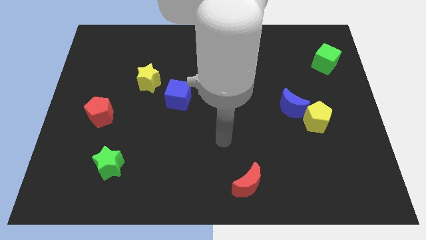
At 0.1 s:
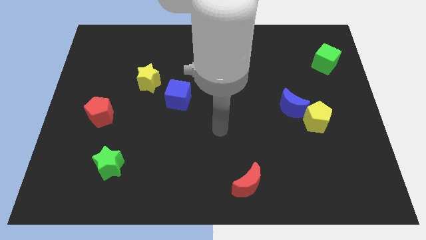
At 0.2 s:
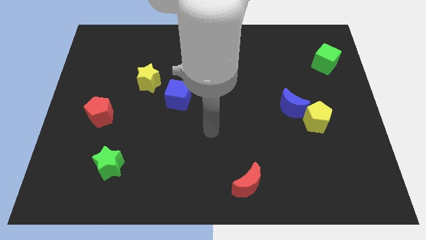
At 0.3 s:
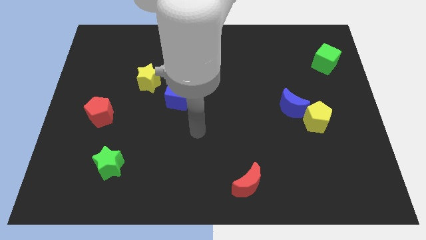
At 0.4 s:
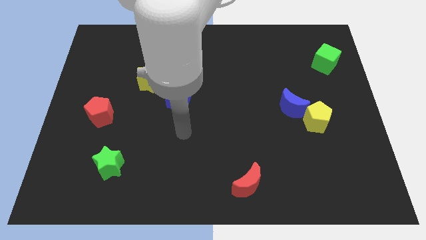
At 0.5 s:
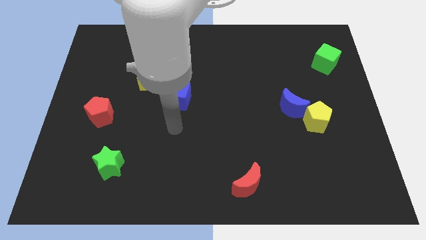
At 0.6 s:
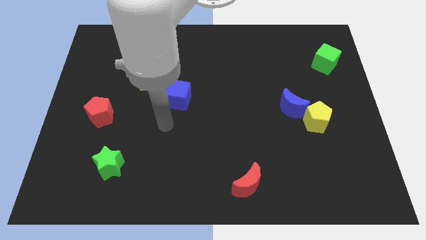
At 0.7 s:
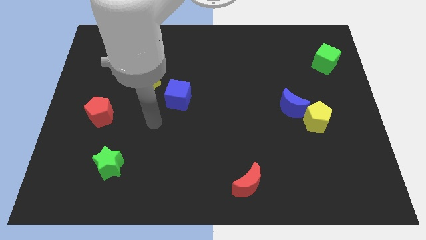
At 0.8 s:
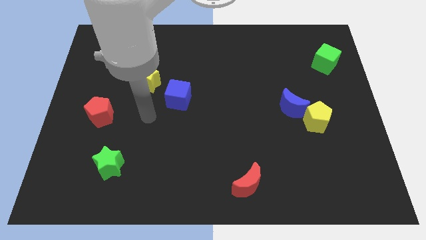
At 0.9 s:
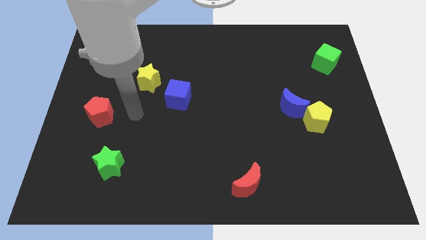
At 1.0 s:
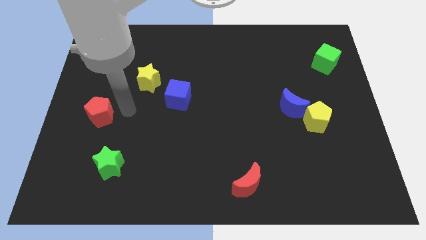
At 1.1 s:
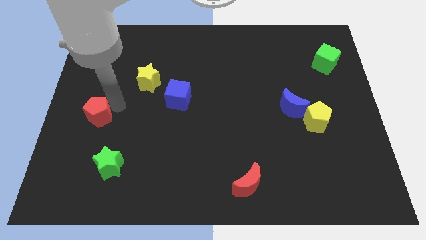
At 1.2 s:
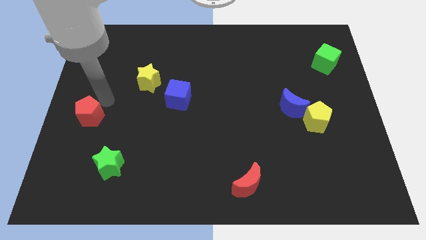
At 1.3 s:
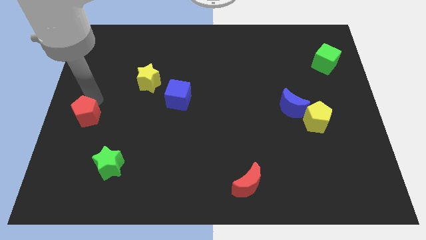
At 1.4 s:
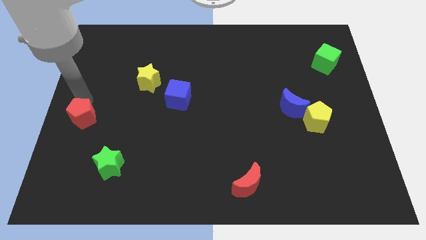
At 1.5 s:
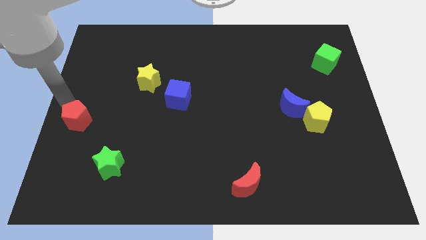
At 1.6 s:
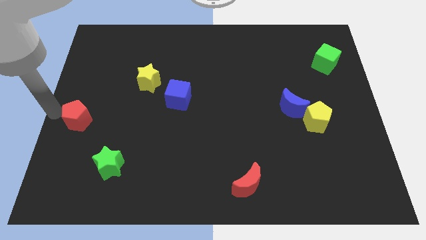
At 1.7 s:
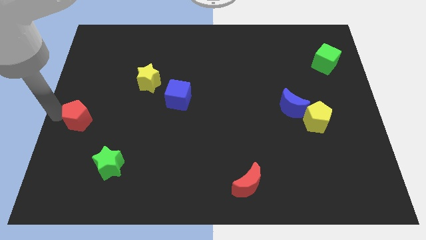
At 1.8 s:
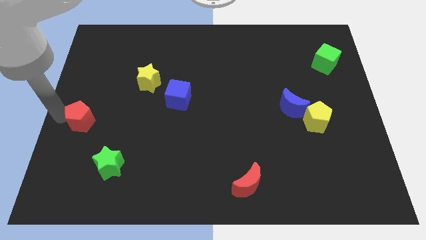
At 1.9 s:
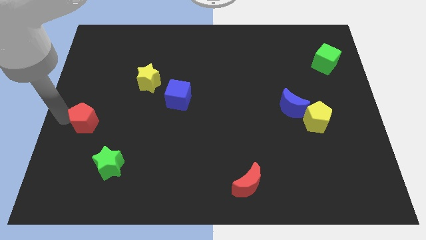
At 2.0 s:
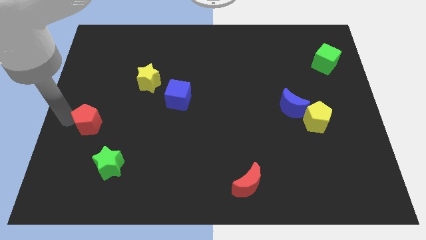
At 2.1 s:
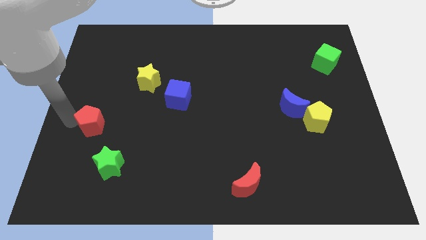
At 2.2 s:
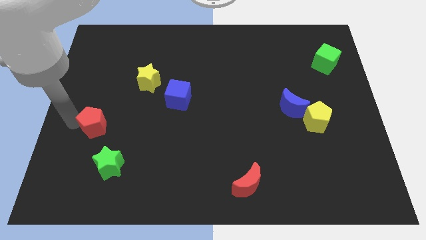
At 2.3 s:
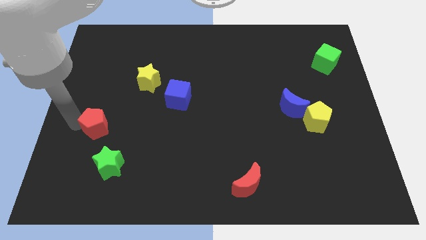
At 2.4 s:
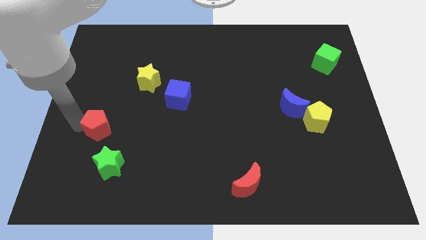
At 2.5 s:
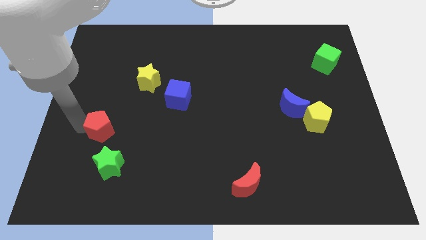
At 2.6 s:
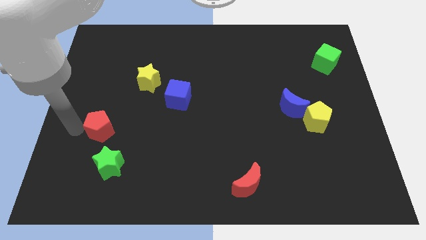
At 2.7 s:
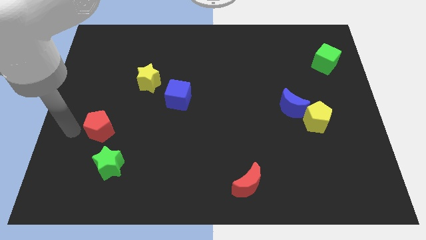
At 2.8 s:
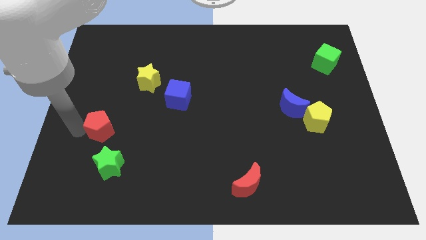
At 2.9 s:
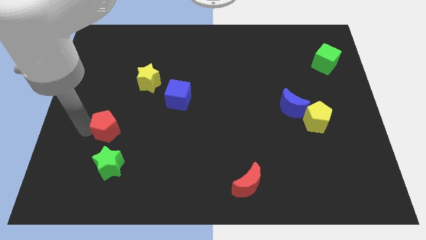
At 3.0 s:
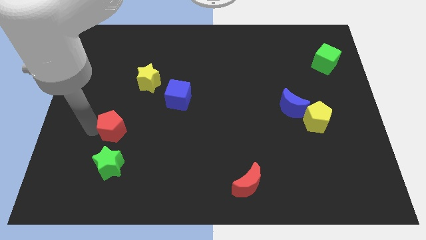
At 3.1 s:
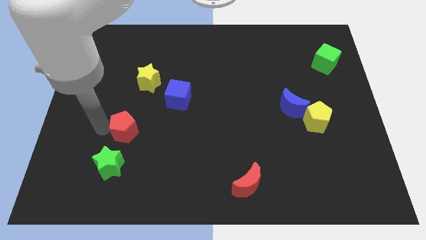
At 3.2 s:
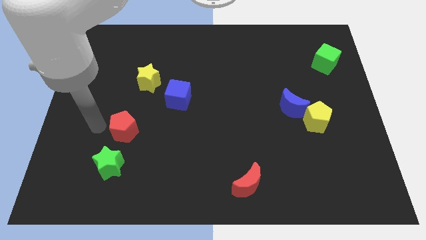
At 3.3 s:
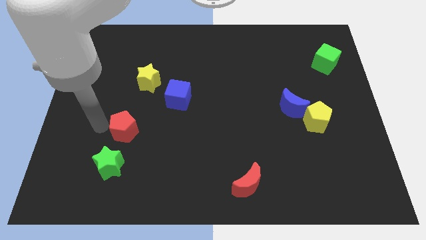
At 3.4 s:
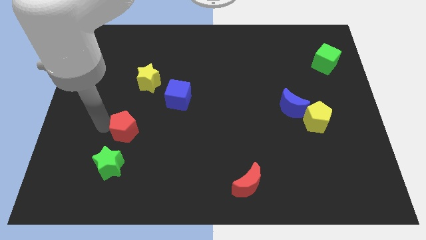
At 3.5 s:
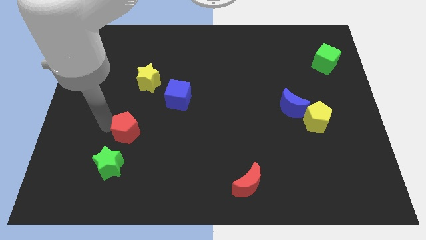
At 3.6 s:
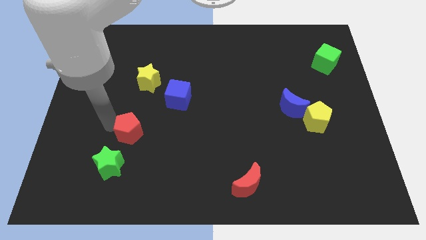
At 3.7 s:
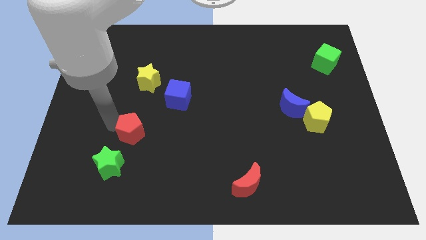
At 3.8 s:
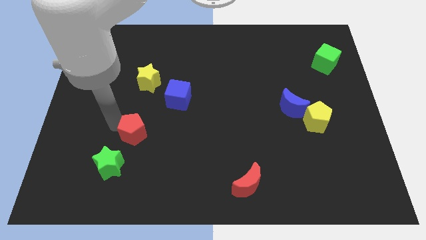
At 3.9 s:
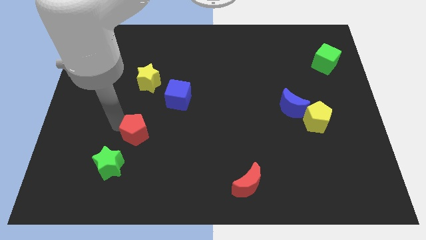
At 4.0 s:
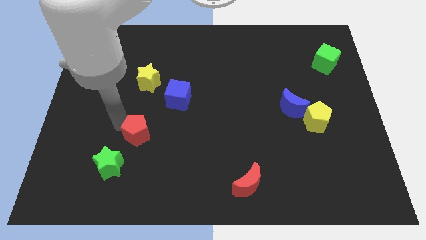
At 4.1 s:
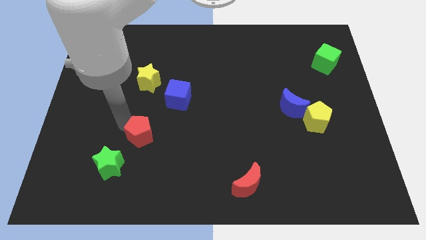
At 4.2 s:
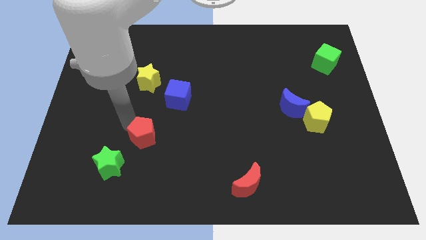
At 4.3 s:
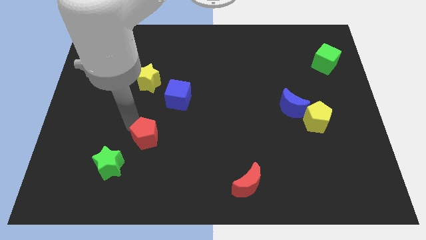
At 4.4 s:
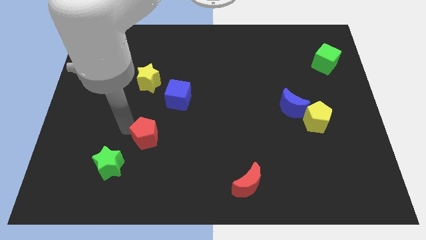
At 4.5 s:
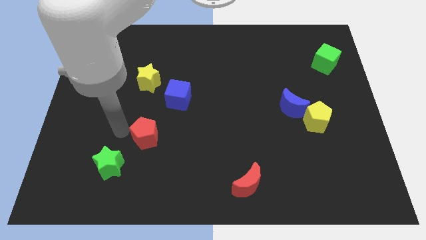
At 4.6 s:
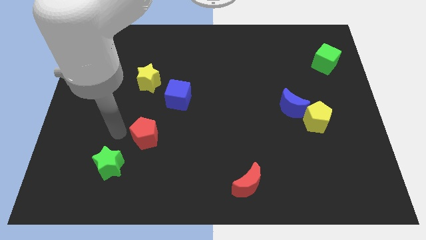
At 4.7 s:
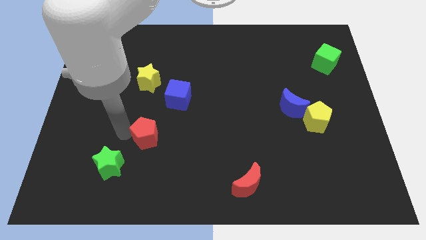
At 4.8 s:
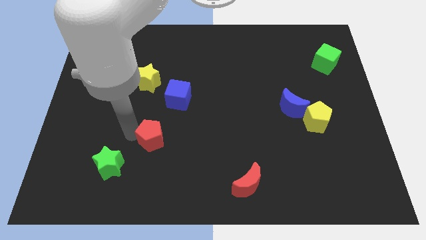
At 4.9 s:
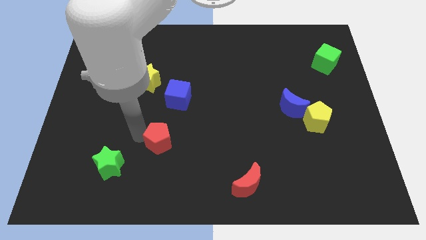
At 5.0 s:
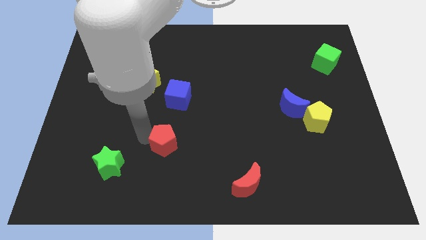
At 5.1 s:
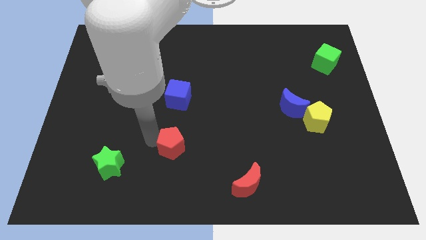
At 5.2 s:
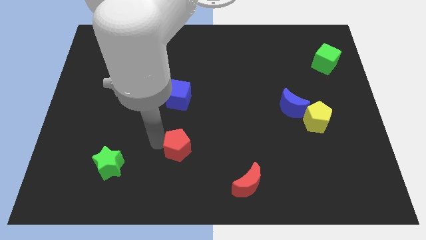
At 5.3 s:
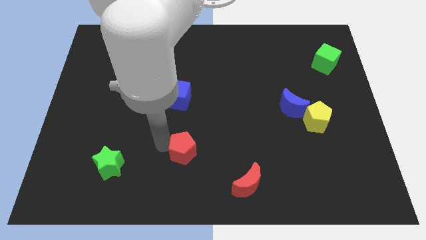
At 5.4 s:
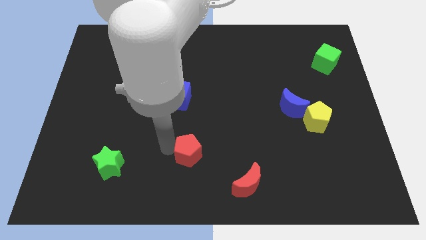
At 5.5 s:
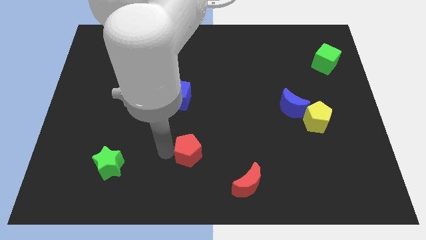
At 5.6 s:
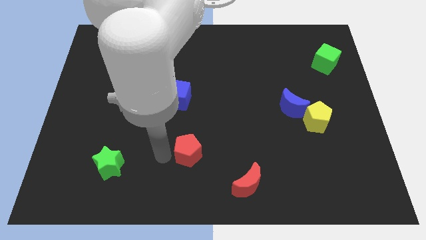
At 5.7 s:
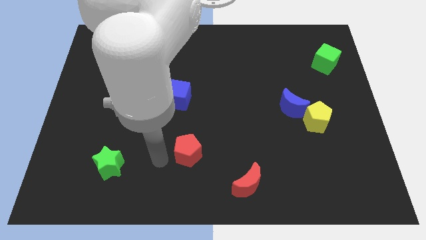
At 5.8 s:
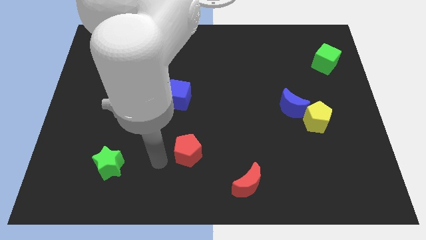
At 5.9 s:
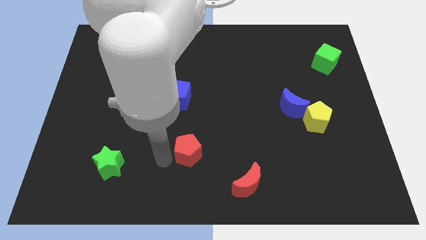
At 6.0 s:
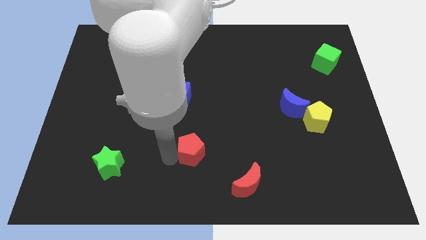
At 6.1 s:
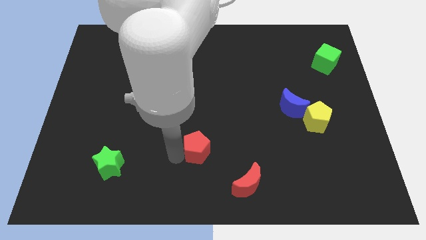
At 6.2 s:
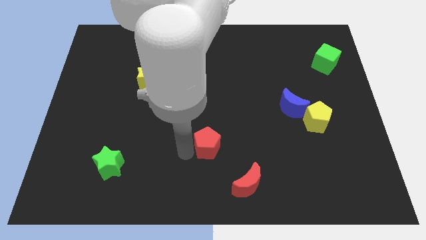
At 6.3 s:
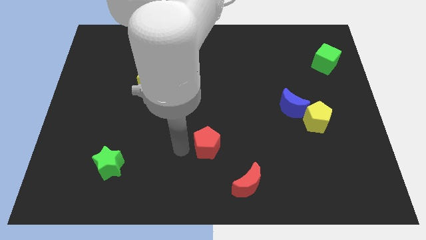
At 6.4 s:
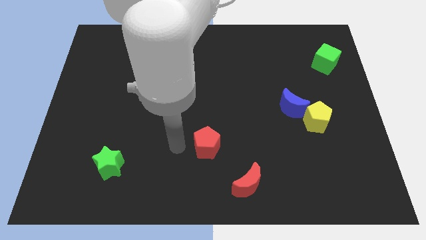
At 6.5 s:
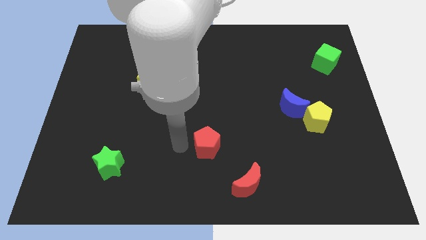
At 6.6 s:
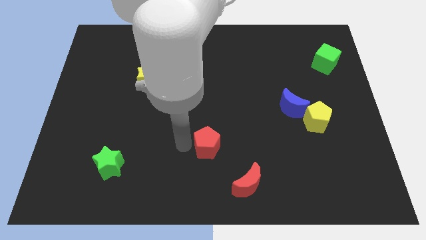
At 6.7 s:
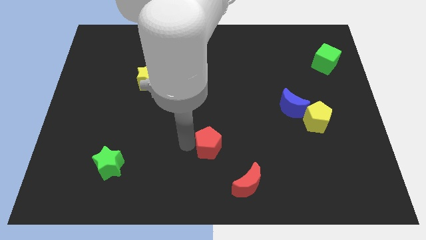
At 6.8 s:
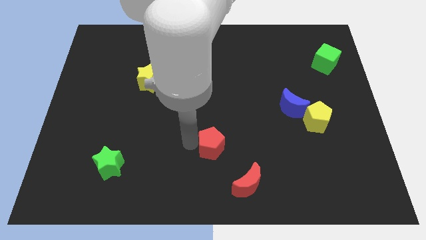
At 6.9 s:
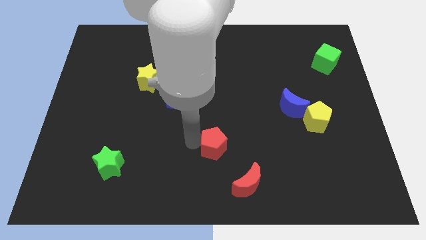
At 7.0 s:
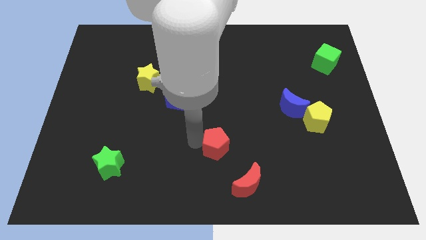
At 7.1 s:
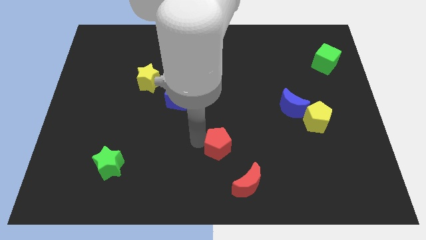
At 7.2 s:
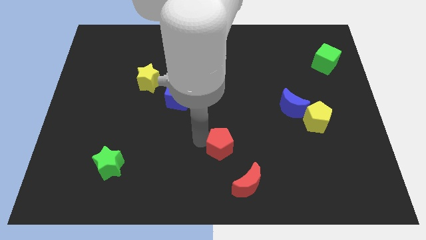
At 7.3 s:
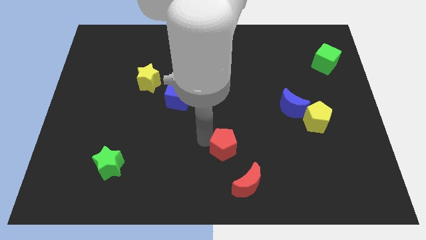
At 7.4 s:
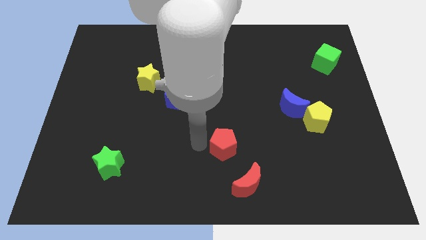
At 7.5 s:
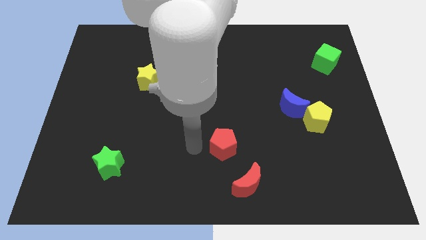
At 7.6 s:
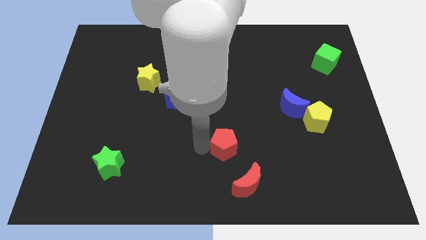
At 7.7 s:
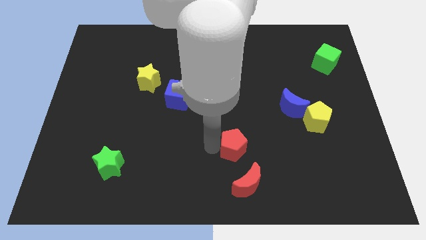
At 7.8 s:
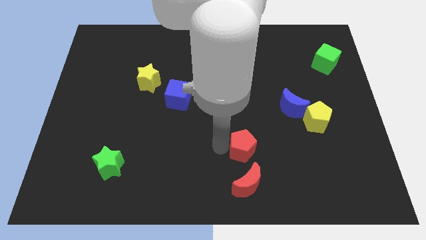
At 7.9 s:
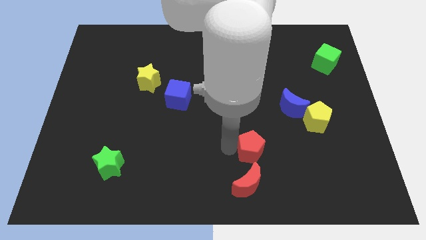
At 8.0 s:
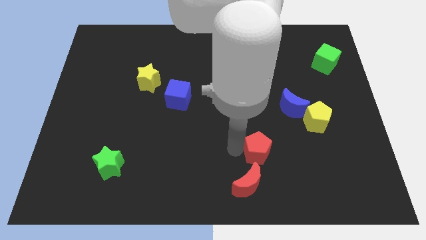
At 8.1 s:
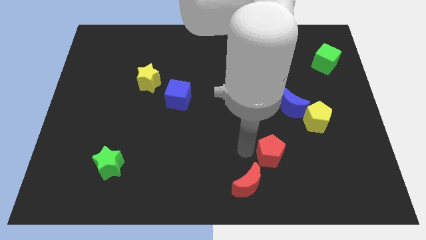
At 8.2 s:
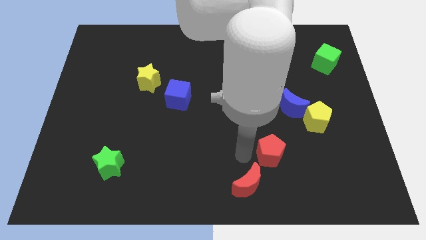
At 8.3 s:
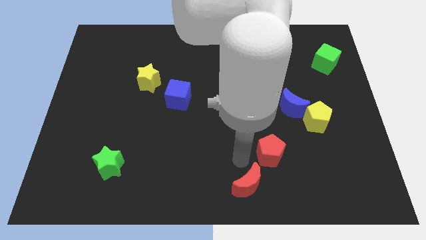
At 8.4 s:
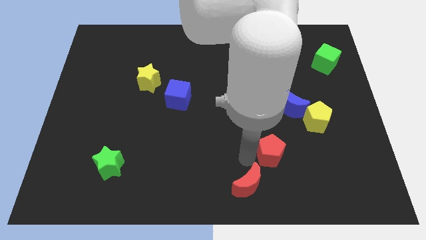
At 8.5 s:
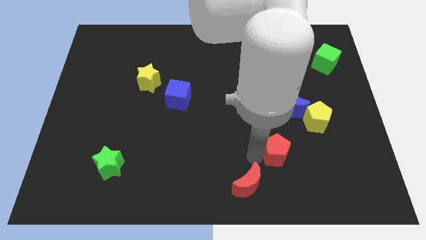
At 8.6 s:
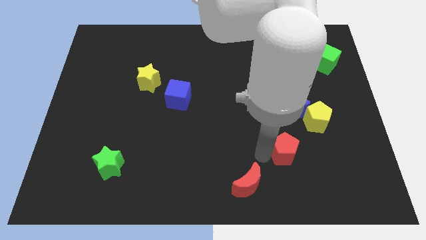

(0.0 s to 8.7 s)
move the red pentagon to the bottom of the blue moon
